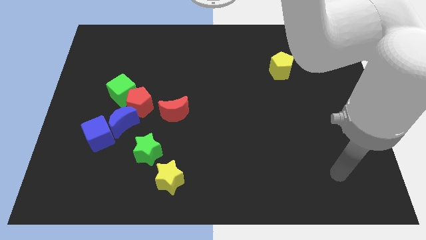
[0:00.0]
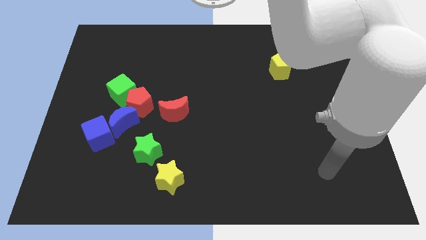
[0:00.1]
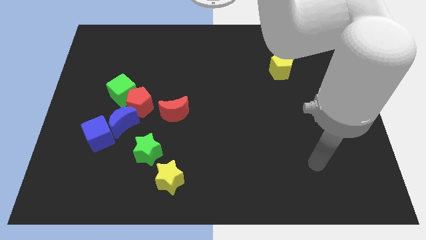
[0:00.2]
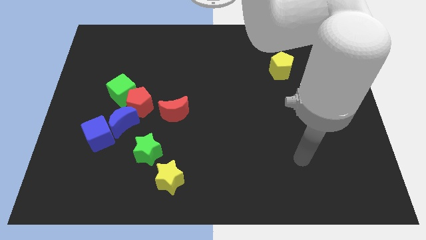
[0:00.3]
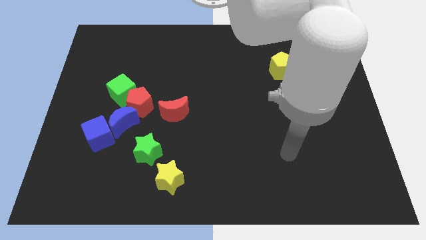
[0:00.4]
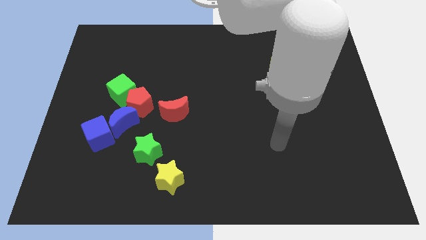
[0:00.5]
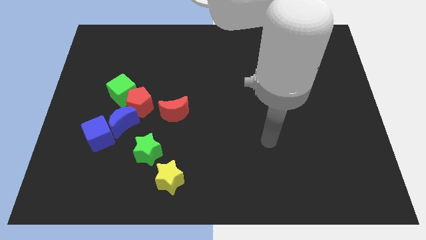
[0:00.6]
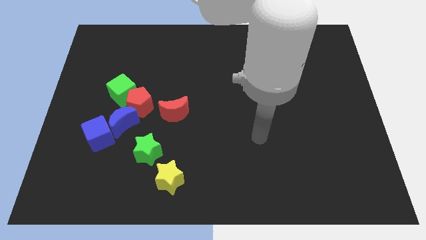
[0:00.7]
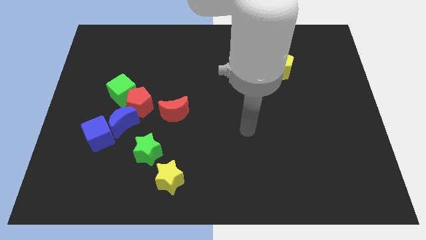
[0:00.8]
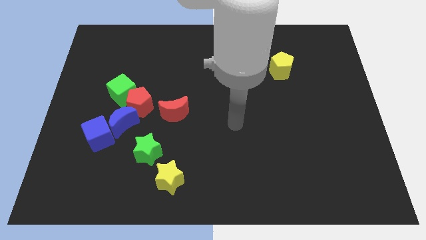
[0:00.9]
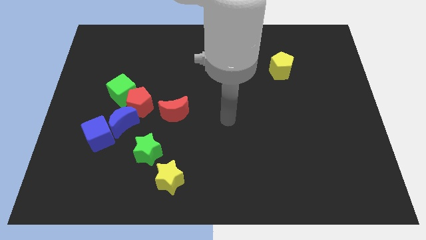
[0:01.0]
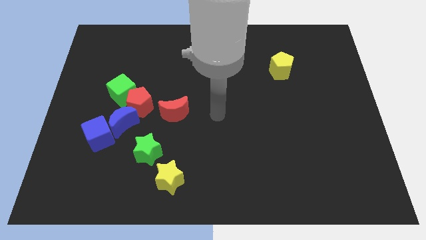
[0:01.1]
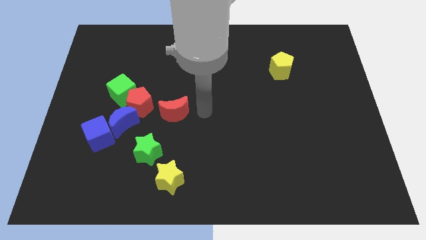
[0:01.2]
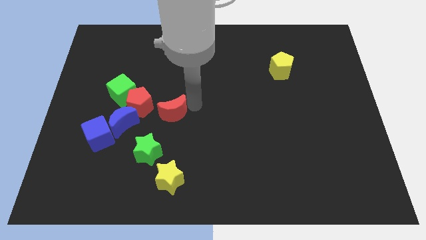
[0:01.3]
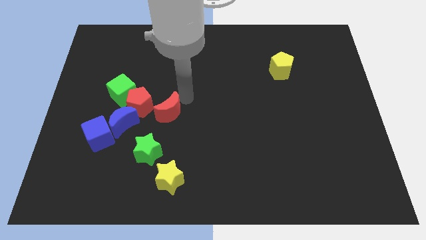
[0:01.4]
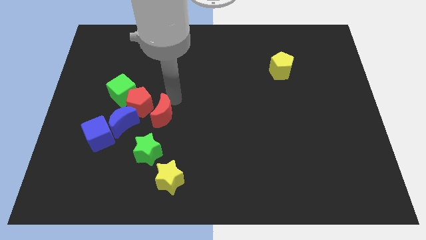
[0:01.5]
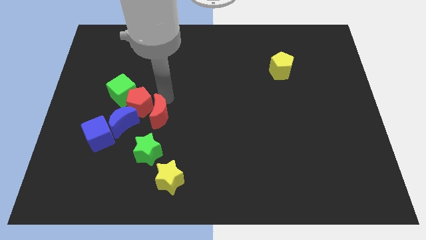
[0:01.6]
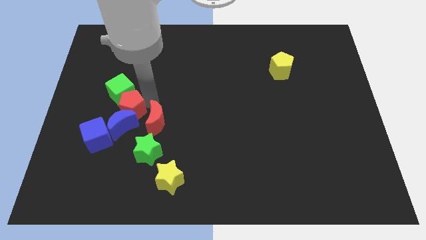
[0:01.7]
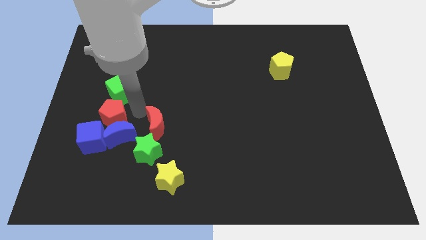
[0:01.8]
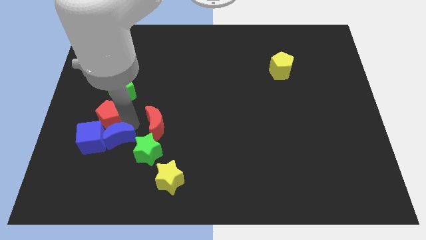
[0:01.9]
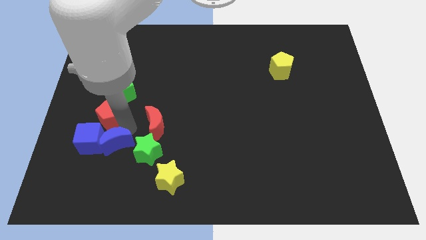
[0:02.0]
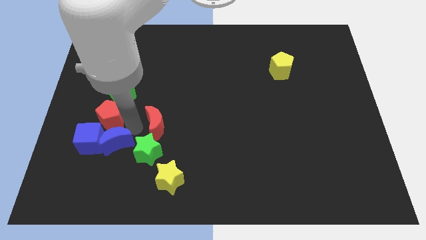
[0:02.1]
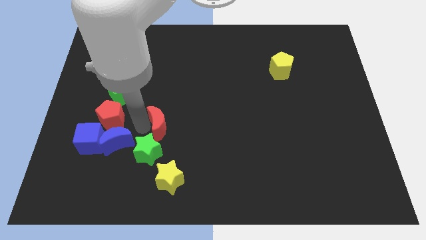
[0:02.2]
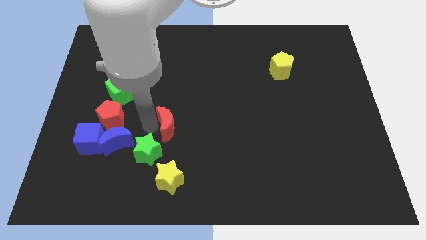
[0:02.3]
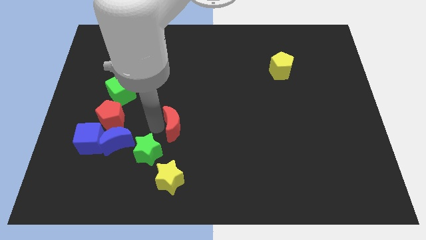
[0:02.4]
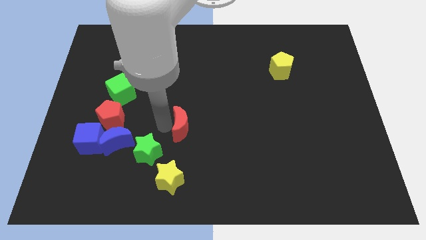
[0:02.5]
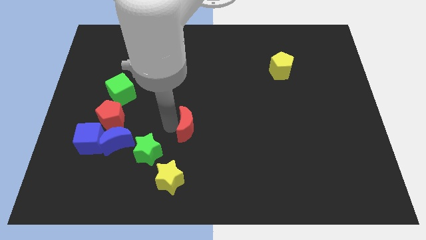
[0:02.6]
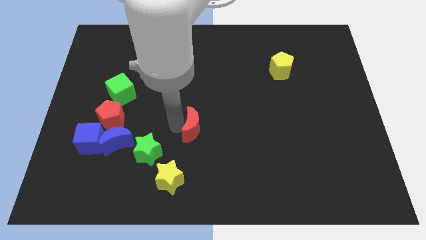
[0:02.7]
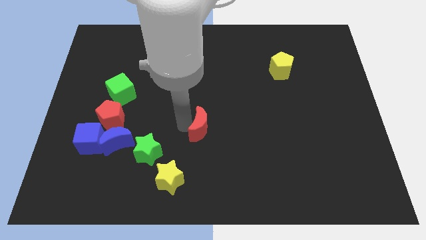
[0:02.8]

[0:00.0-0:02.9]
push the red moon a little bit downwards and to the right

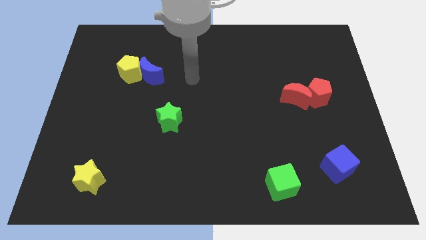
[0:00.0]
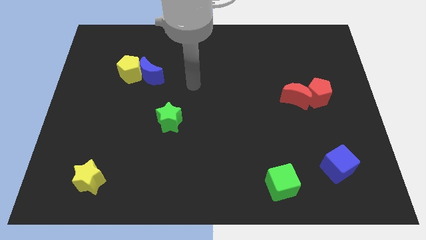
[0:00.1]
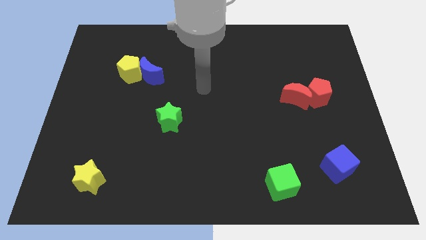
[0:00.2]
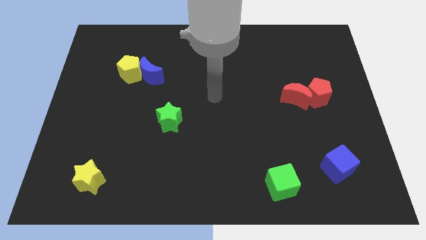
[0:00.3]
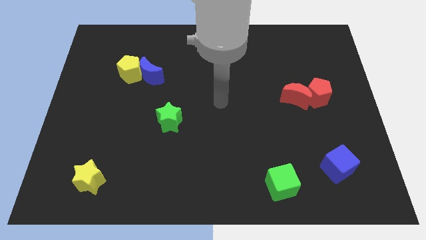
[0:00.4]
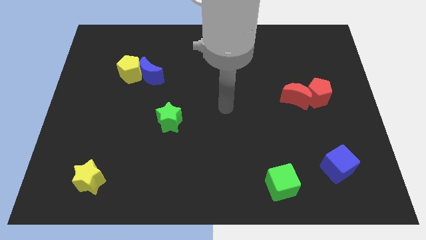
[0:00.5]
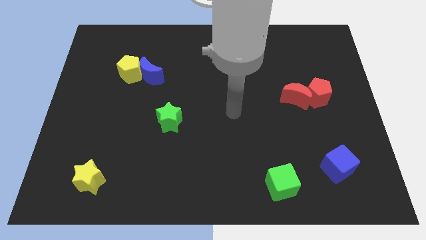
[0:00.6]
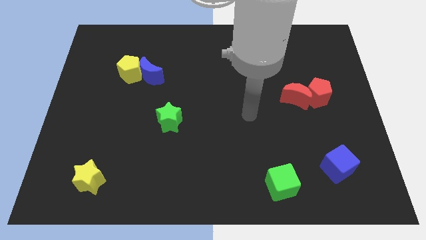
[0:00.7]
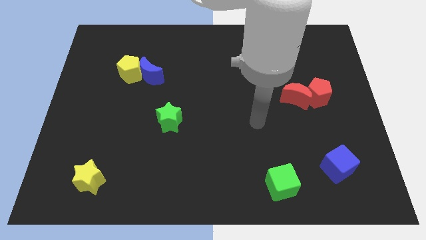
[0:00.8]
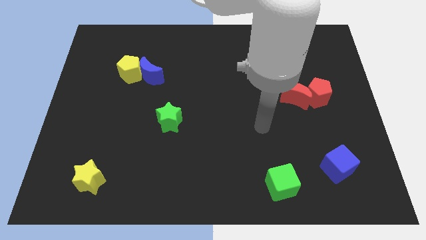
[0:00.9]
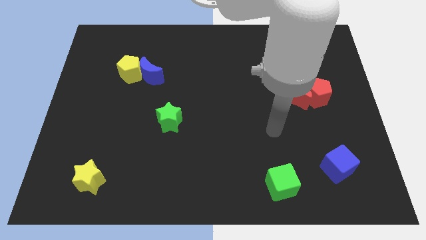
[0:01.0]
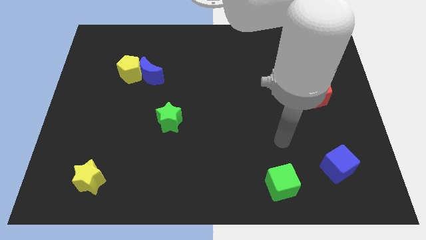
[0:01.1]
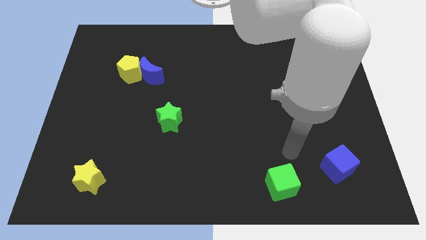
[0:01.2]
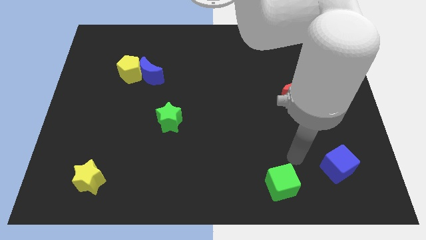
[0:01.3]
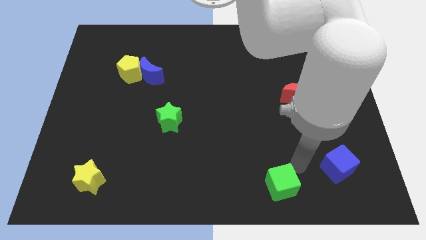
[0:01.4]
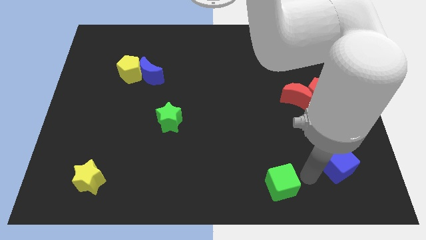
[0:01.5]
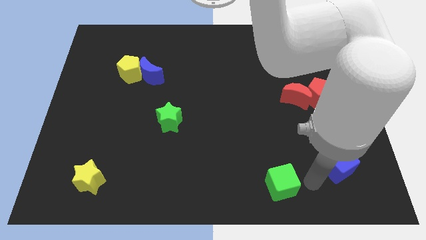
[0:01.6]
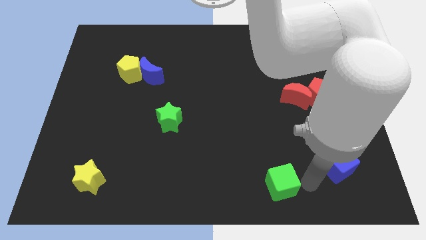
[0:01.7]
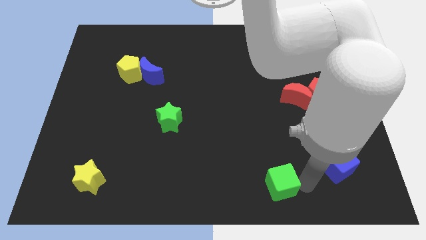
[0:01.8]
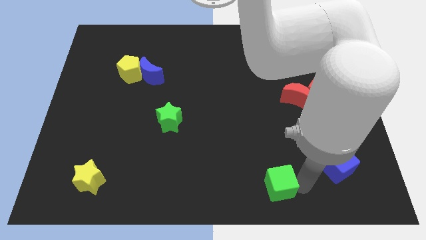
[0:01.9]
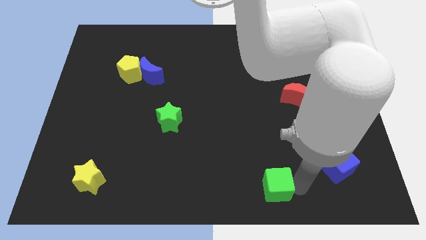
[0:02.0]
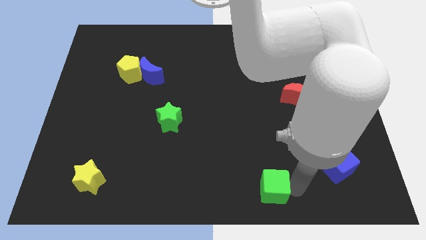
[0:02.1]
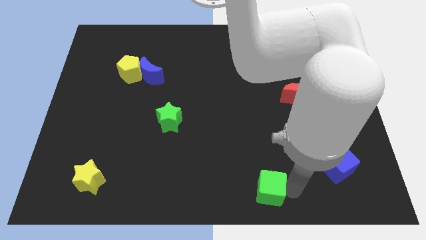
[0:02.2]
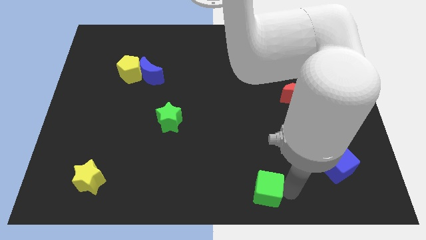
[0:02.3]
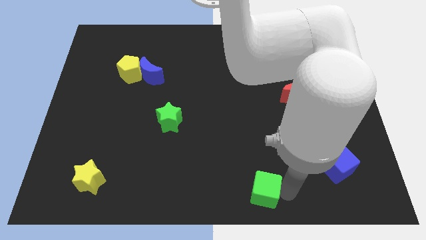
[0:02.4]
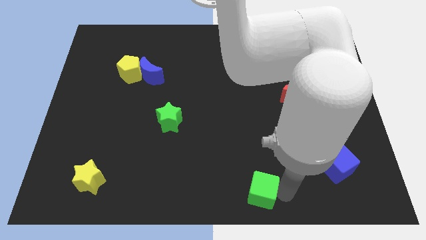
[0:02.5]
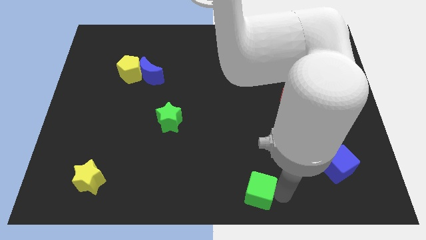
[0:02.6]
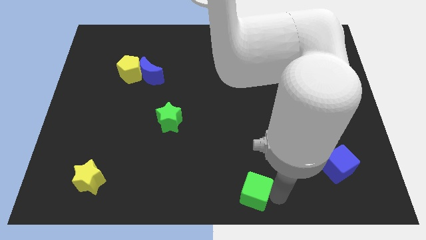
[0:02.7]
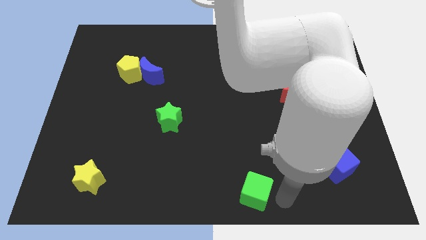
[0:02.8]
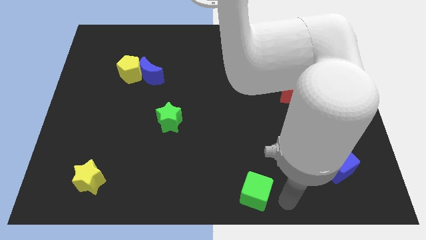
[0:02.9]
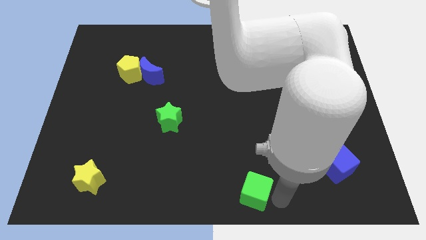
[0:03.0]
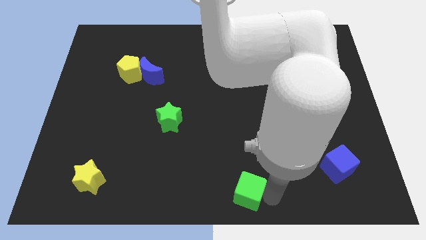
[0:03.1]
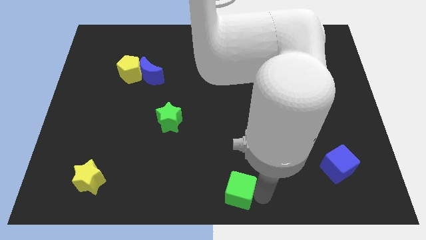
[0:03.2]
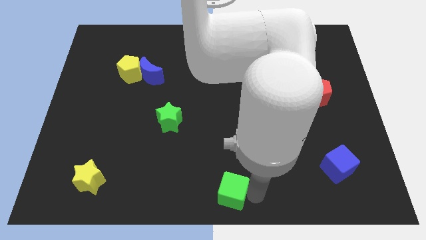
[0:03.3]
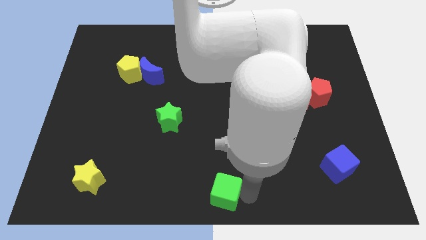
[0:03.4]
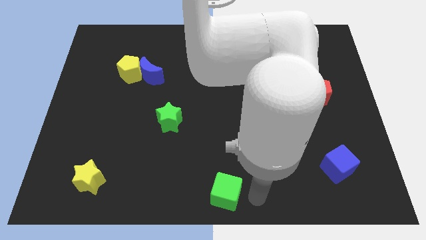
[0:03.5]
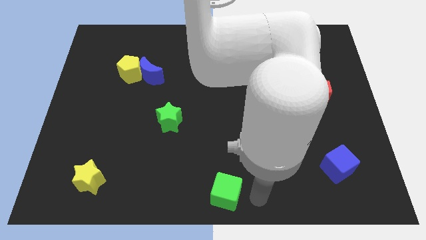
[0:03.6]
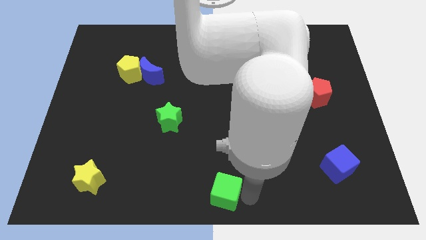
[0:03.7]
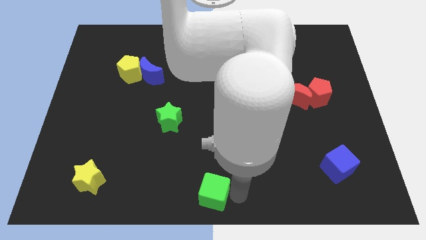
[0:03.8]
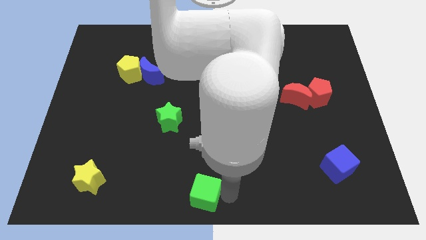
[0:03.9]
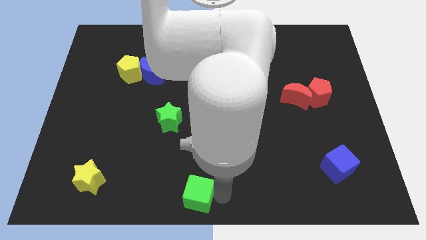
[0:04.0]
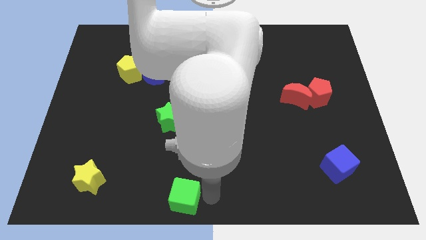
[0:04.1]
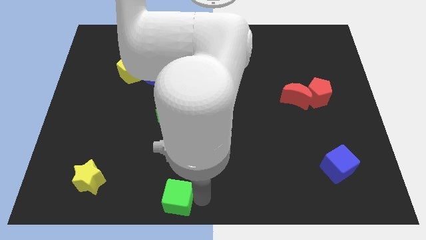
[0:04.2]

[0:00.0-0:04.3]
push the green cube left

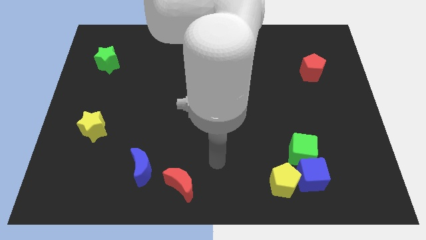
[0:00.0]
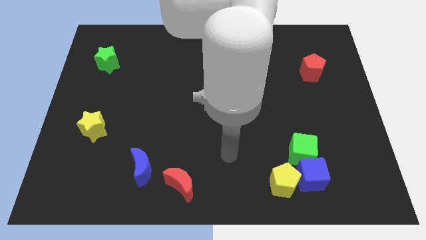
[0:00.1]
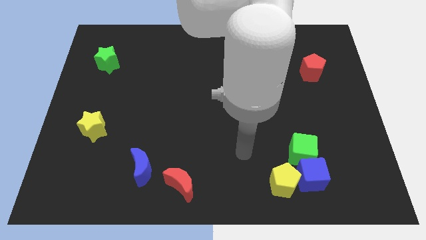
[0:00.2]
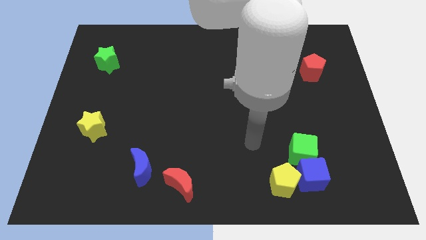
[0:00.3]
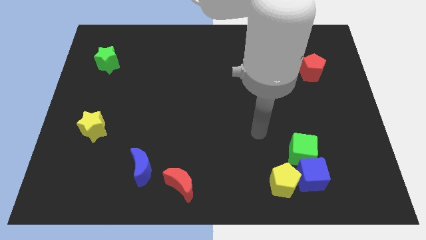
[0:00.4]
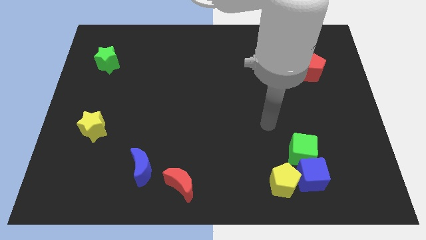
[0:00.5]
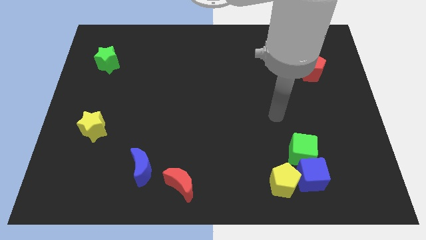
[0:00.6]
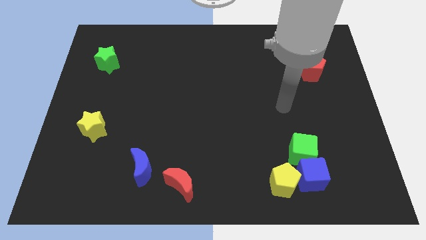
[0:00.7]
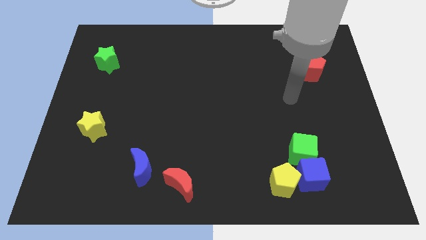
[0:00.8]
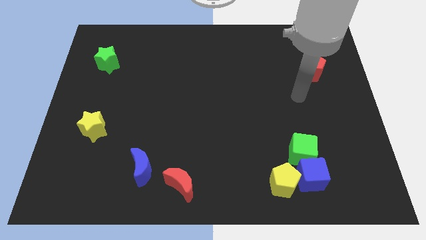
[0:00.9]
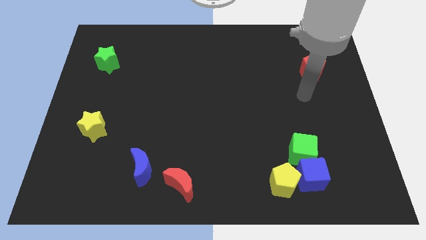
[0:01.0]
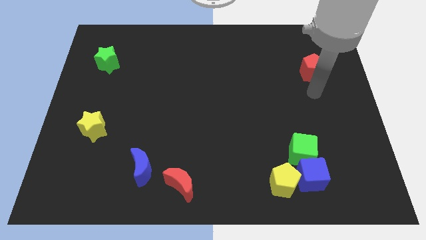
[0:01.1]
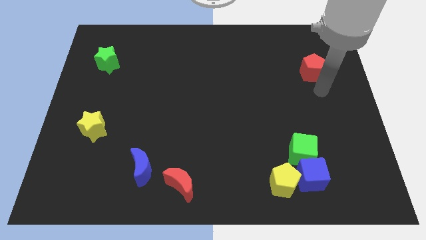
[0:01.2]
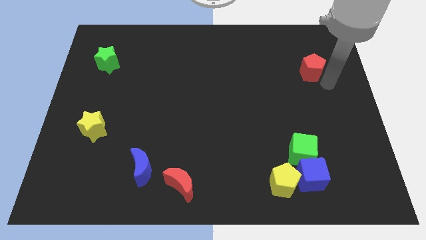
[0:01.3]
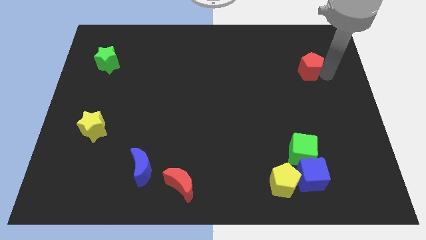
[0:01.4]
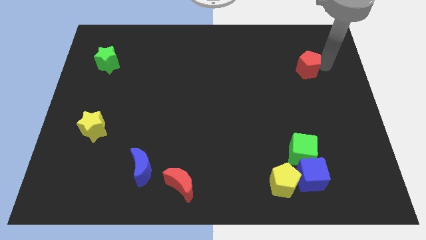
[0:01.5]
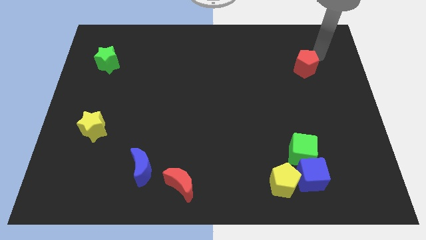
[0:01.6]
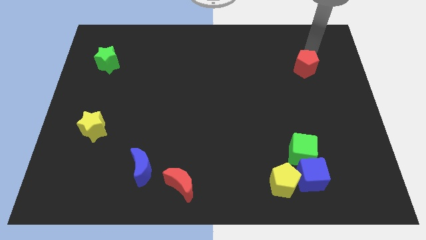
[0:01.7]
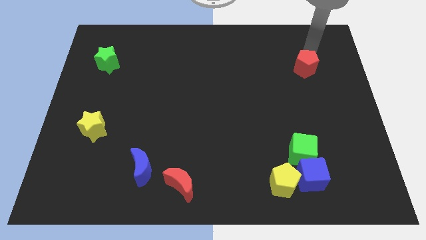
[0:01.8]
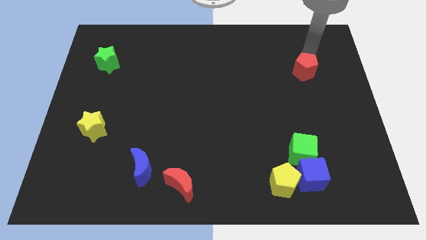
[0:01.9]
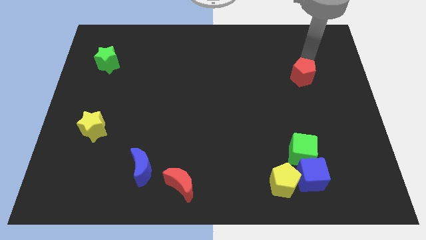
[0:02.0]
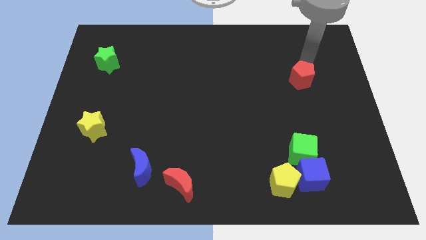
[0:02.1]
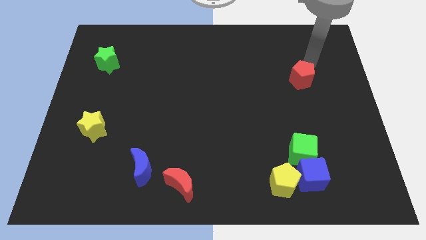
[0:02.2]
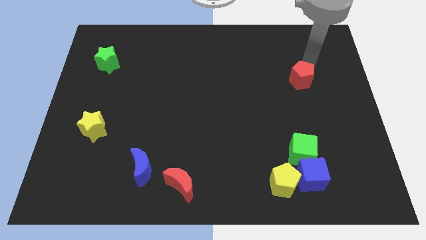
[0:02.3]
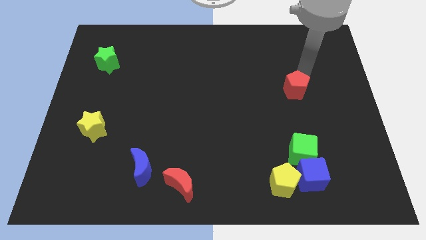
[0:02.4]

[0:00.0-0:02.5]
move the red pentagon a little bit down and left diagonally
